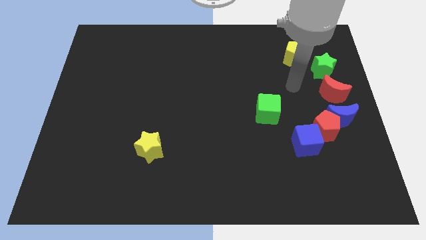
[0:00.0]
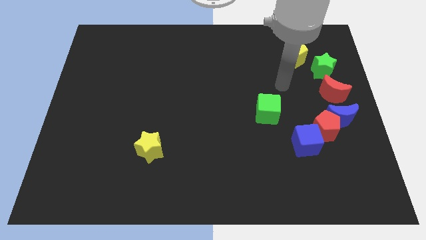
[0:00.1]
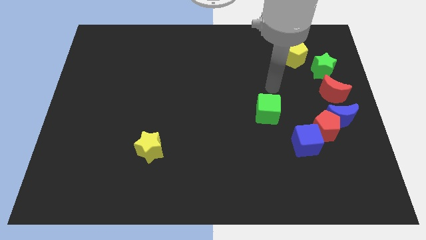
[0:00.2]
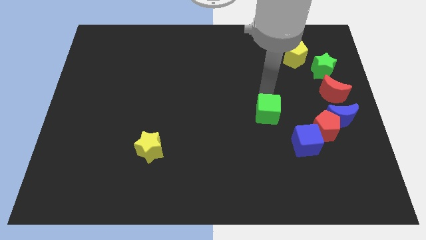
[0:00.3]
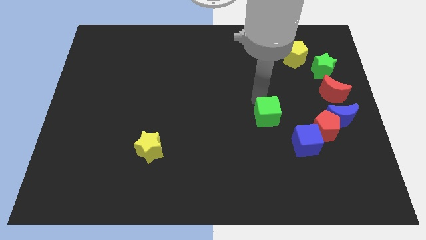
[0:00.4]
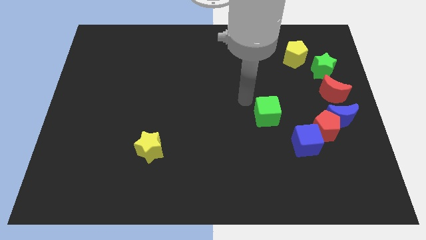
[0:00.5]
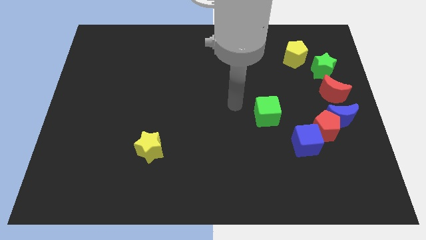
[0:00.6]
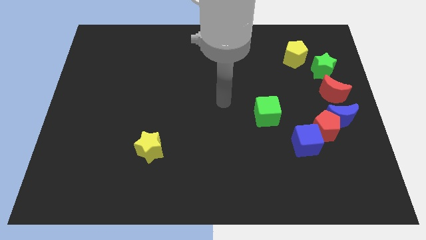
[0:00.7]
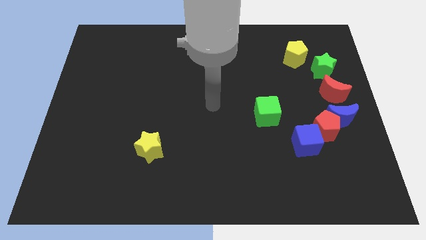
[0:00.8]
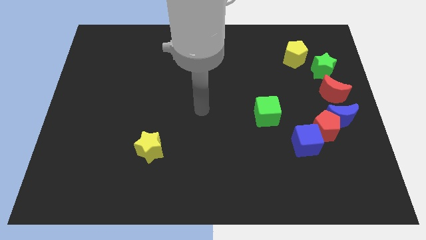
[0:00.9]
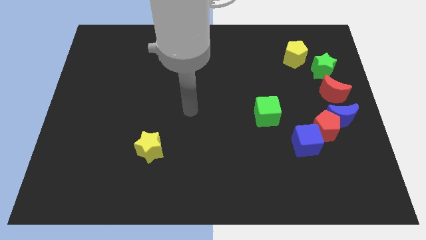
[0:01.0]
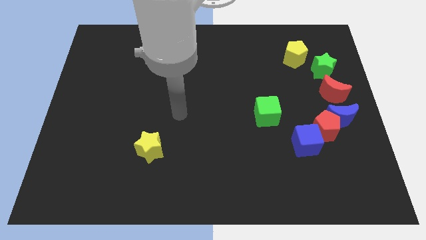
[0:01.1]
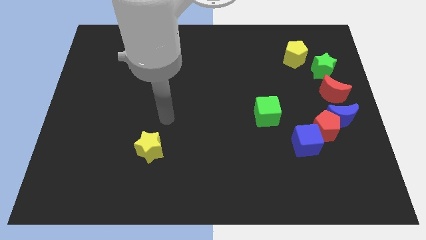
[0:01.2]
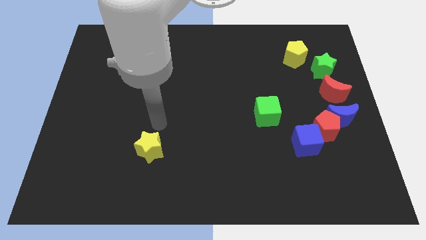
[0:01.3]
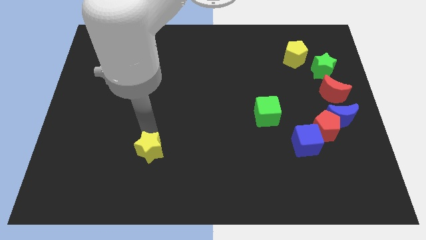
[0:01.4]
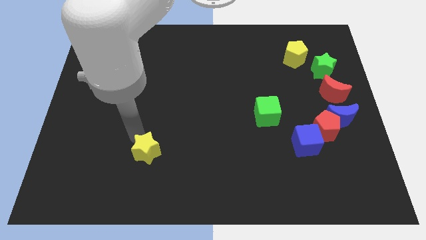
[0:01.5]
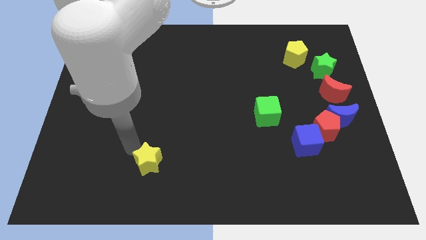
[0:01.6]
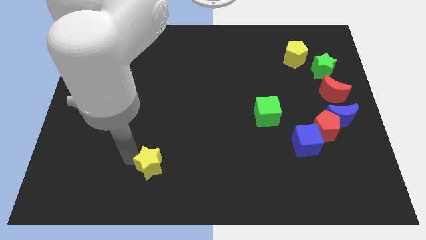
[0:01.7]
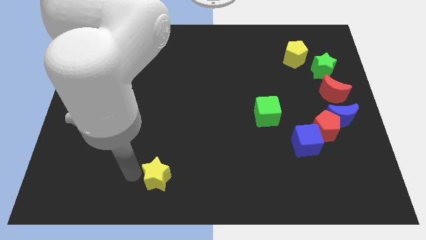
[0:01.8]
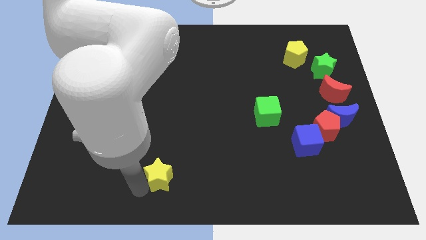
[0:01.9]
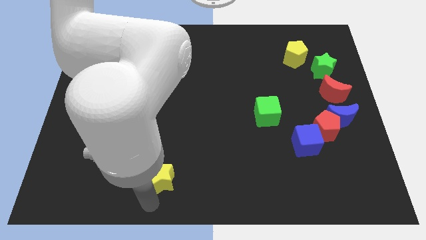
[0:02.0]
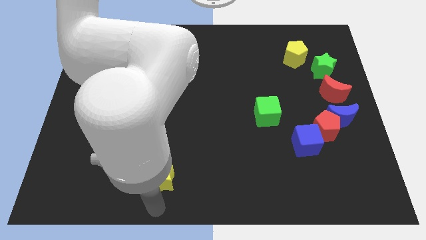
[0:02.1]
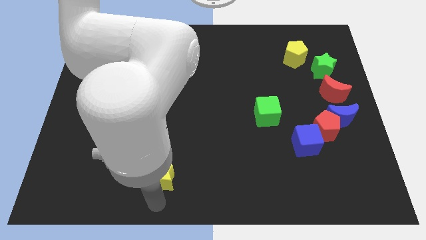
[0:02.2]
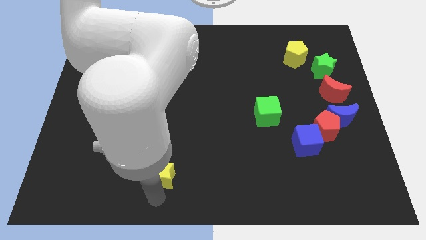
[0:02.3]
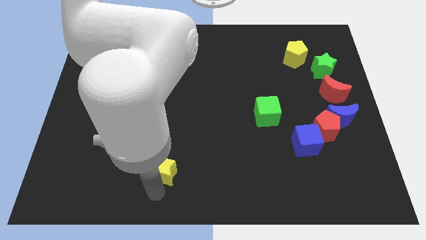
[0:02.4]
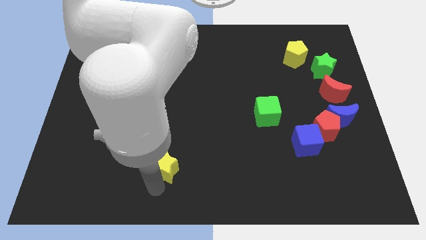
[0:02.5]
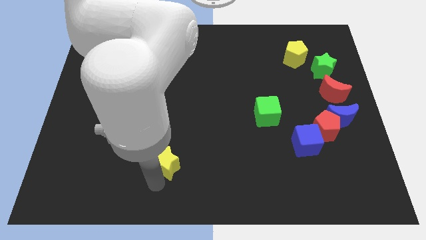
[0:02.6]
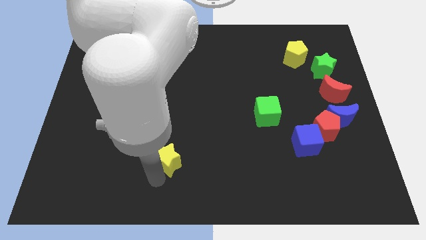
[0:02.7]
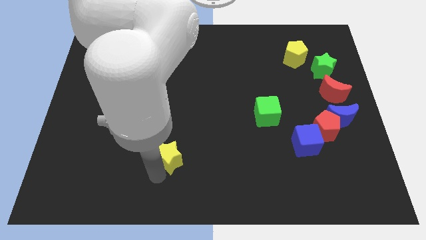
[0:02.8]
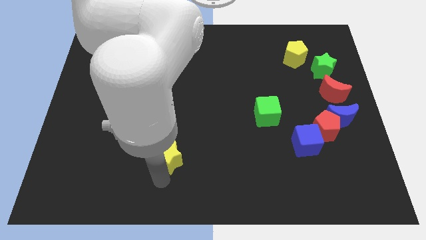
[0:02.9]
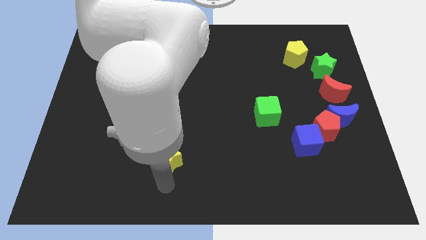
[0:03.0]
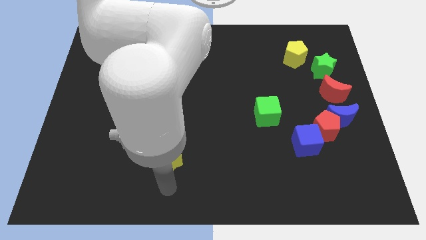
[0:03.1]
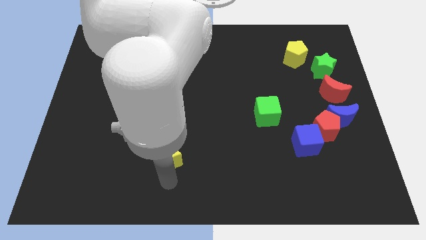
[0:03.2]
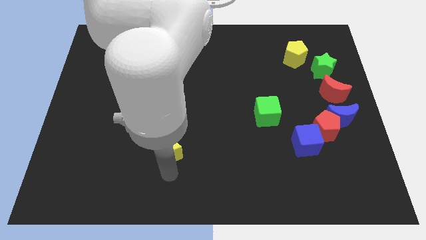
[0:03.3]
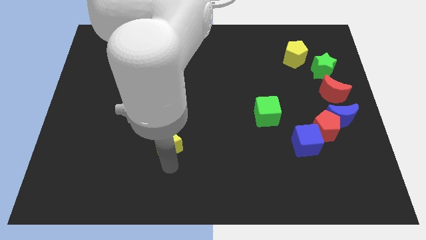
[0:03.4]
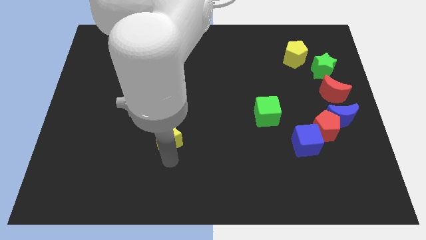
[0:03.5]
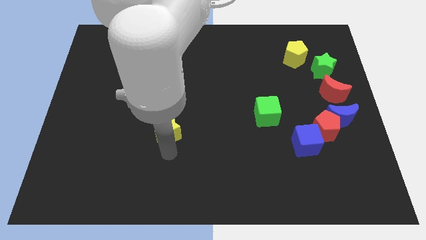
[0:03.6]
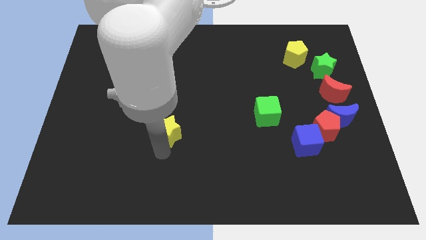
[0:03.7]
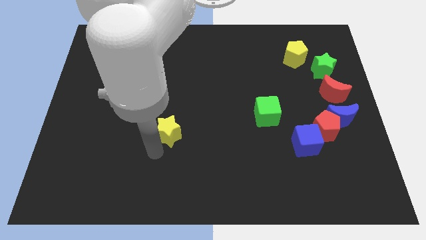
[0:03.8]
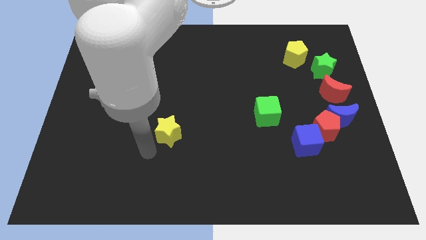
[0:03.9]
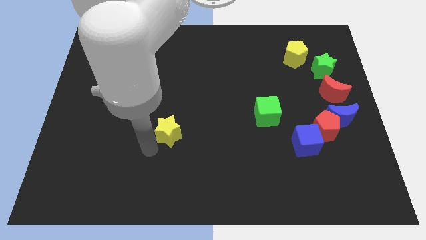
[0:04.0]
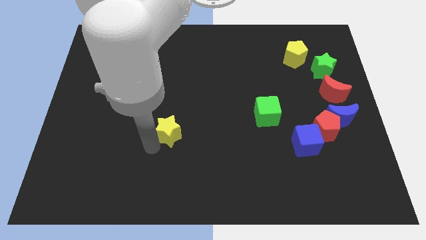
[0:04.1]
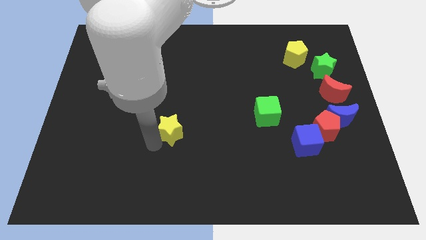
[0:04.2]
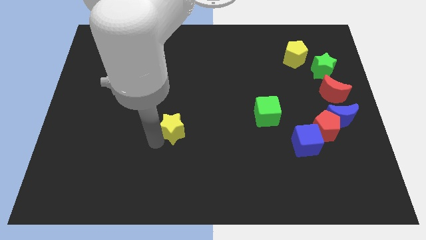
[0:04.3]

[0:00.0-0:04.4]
slide the yellow star up and right a little bit

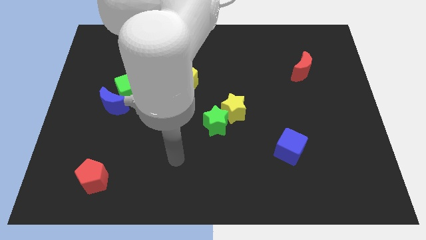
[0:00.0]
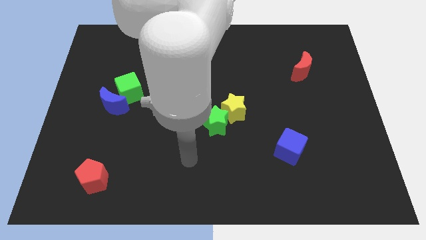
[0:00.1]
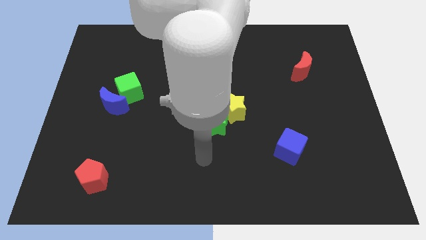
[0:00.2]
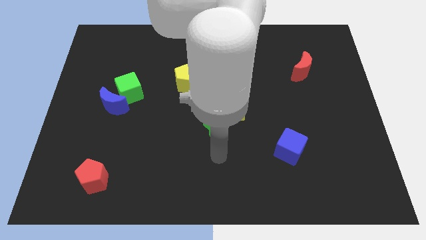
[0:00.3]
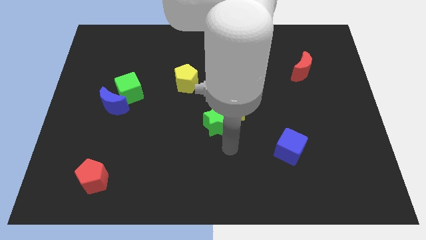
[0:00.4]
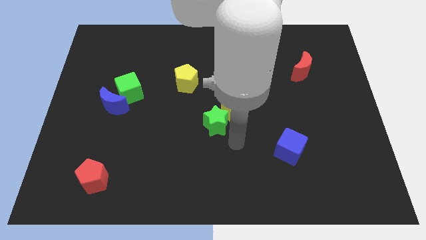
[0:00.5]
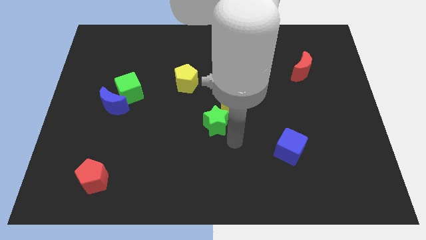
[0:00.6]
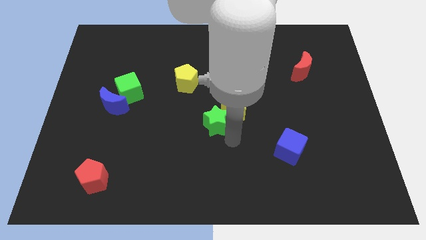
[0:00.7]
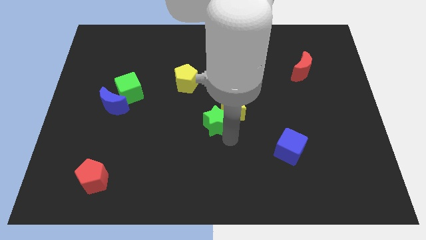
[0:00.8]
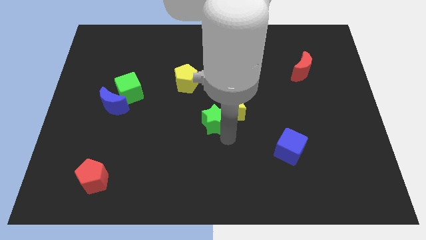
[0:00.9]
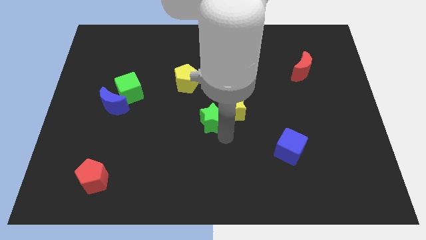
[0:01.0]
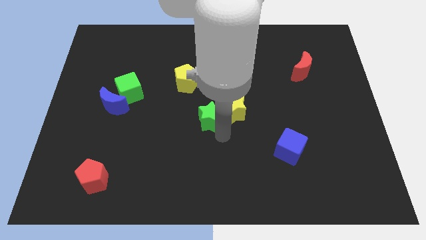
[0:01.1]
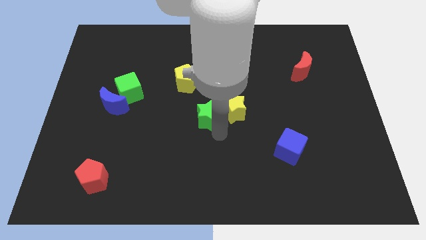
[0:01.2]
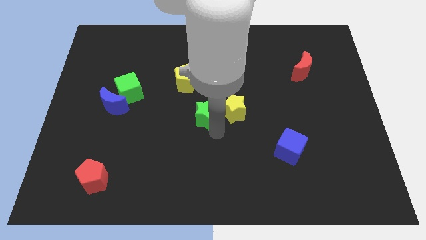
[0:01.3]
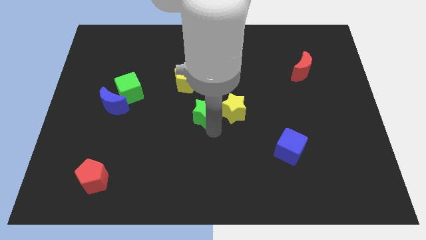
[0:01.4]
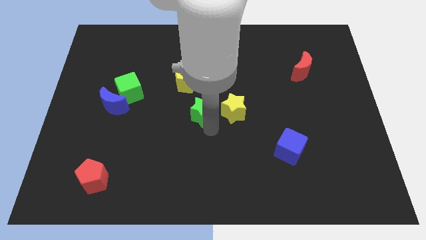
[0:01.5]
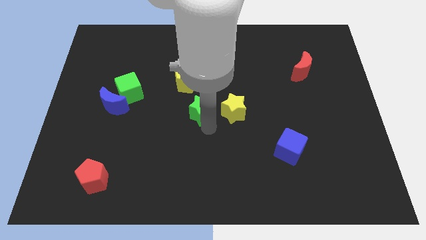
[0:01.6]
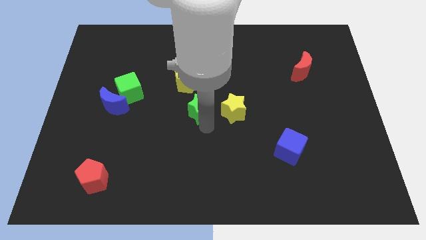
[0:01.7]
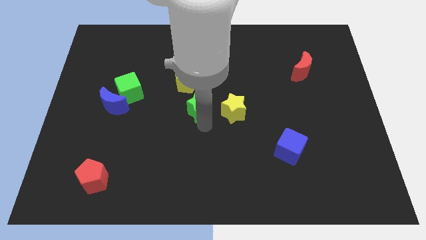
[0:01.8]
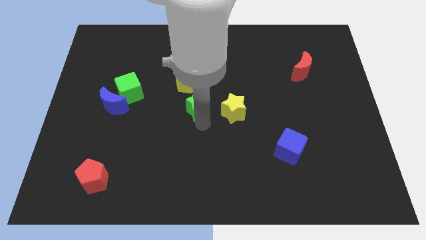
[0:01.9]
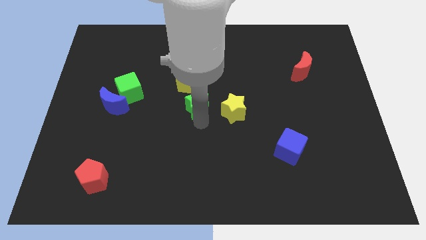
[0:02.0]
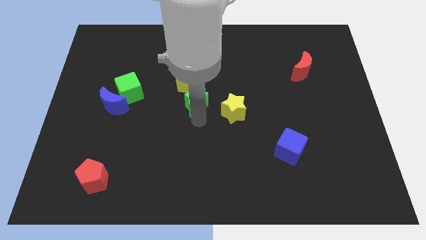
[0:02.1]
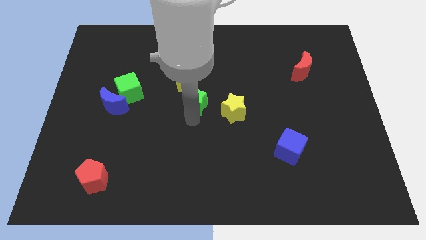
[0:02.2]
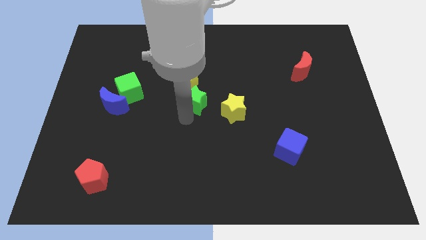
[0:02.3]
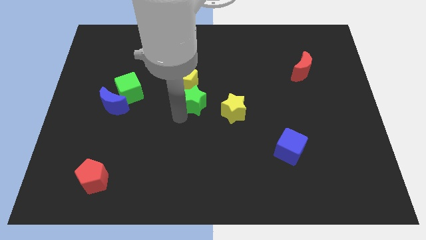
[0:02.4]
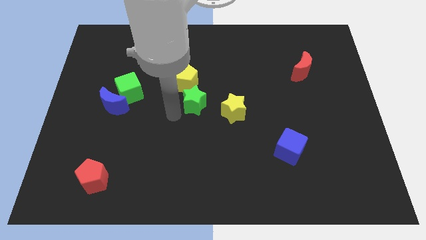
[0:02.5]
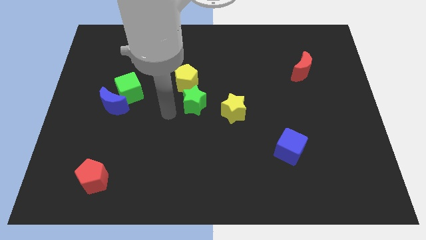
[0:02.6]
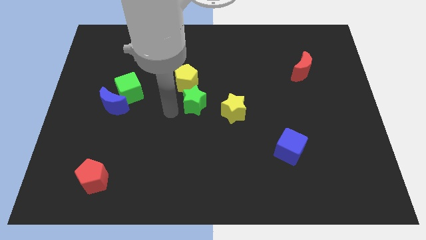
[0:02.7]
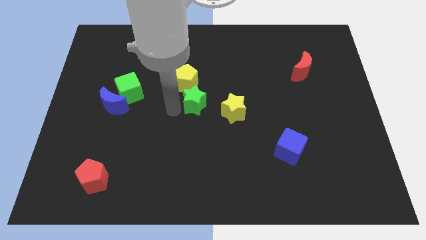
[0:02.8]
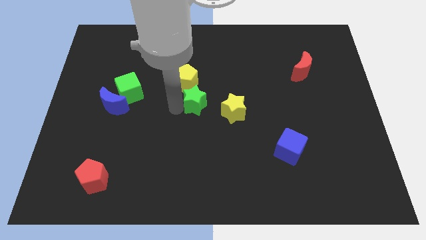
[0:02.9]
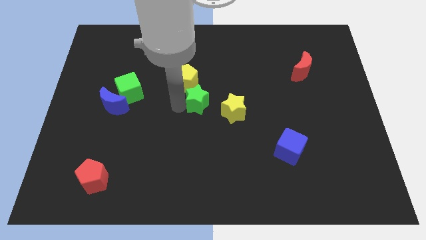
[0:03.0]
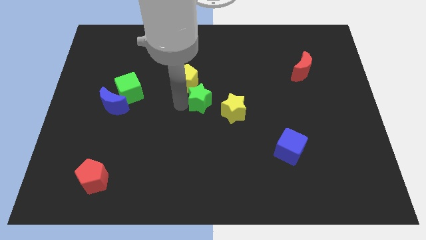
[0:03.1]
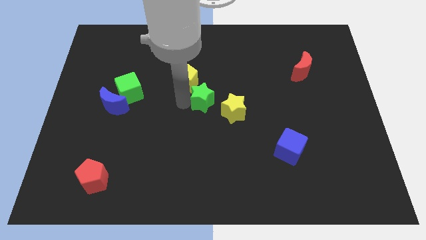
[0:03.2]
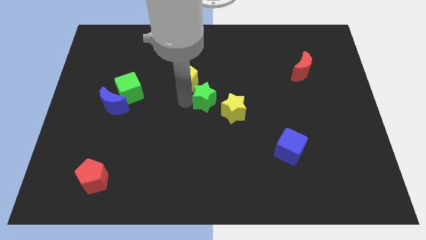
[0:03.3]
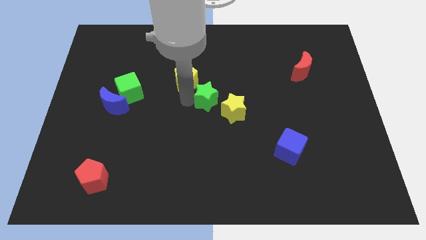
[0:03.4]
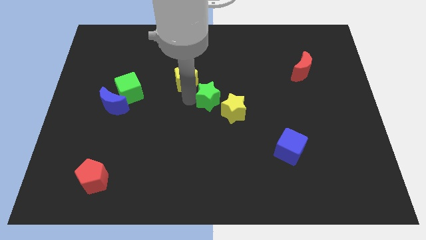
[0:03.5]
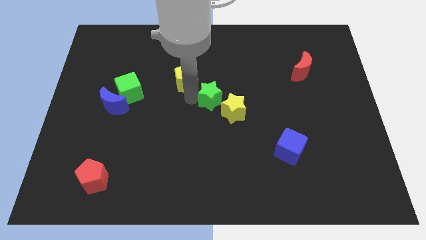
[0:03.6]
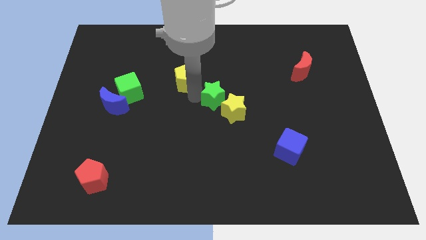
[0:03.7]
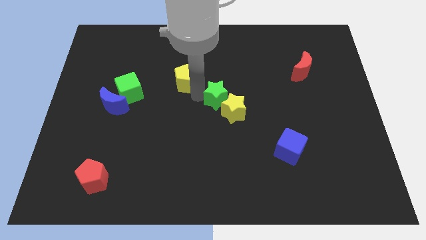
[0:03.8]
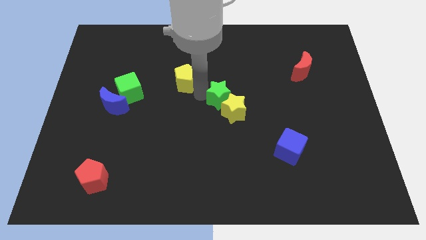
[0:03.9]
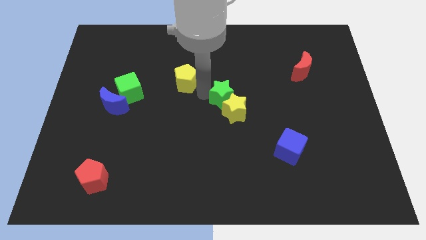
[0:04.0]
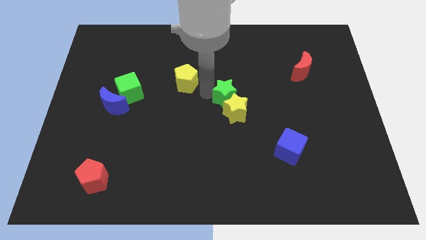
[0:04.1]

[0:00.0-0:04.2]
push the green star upwards and to the right diagonally a little bit
